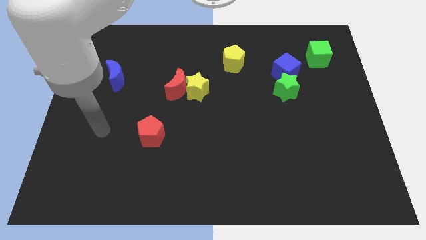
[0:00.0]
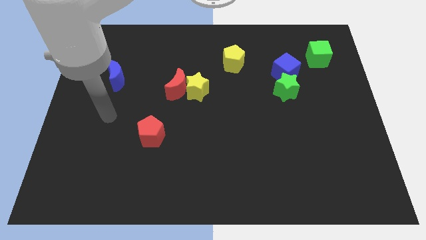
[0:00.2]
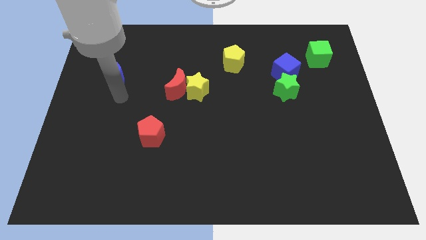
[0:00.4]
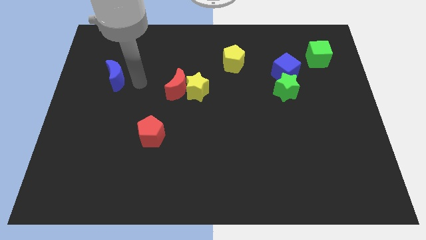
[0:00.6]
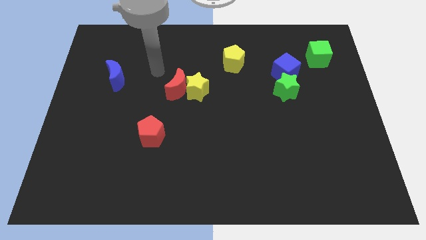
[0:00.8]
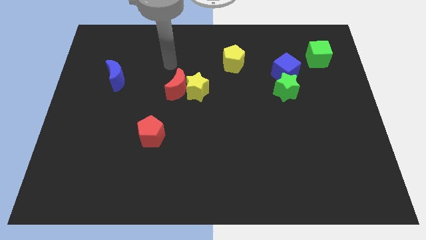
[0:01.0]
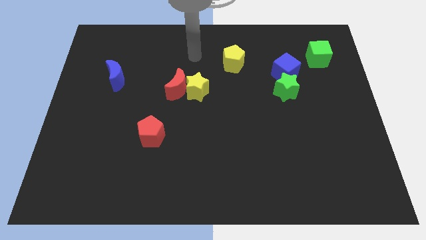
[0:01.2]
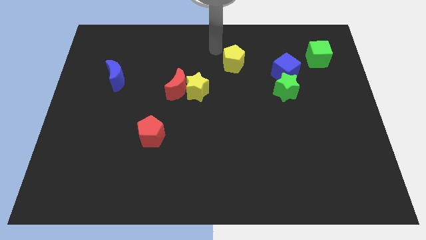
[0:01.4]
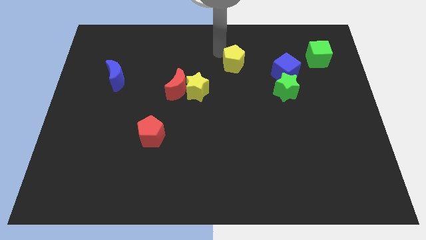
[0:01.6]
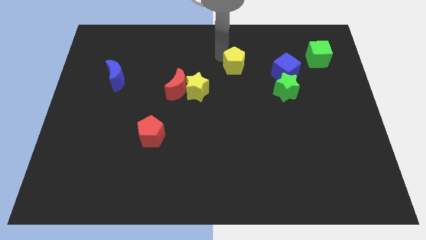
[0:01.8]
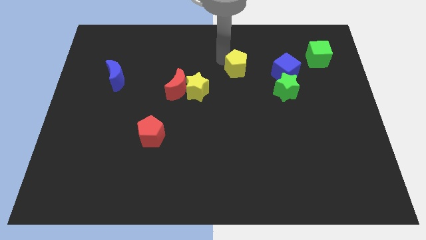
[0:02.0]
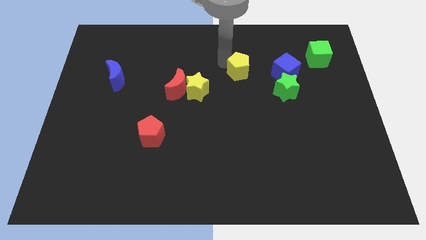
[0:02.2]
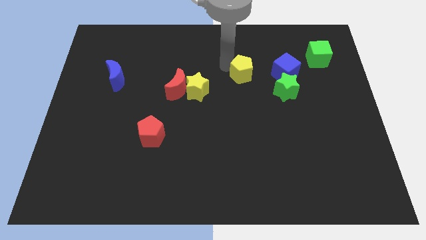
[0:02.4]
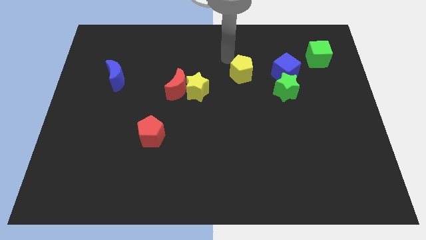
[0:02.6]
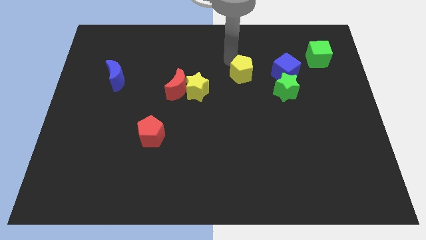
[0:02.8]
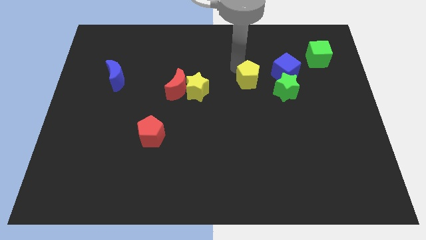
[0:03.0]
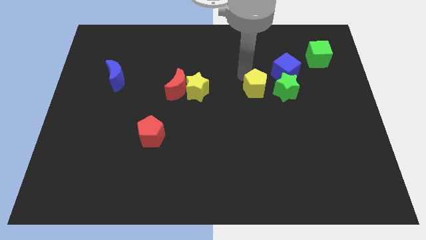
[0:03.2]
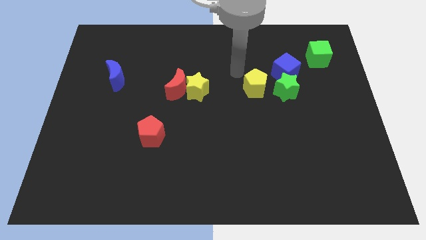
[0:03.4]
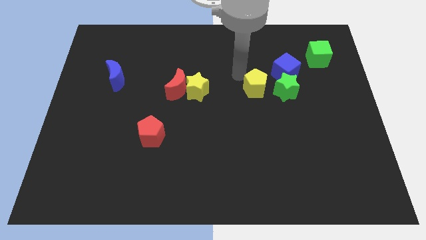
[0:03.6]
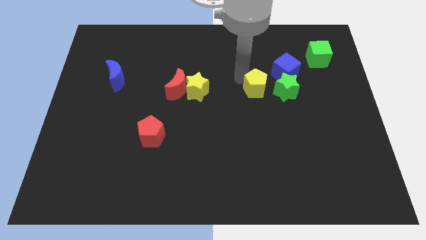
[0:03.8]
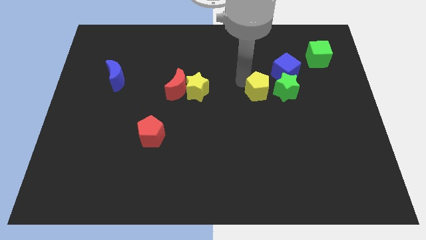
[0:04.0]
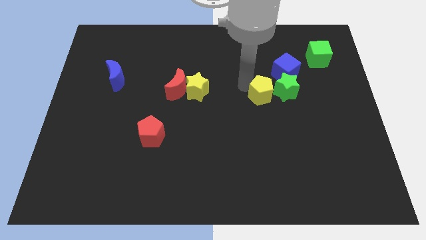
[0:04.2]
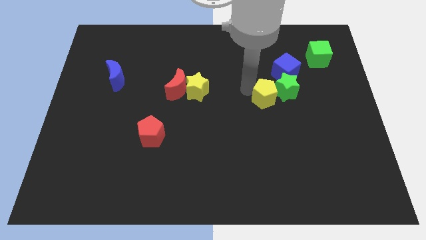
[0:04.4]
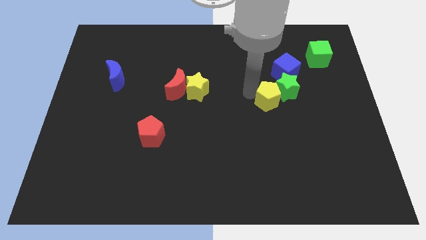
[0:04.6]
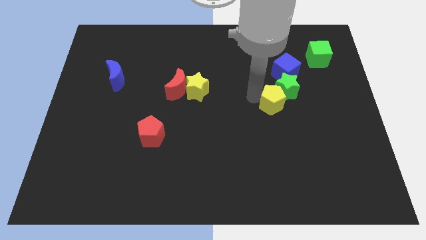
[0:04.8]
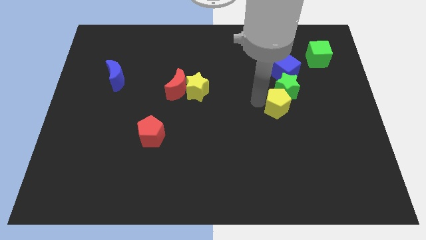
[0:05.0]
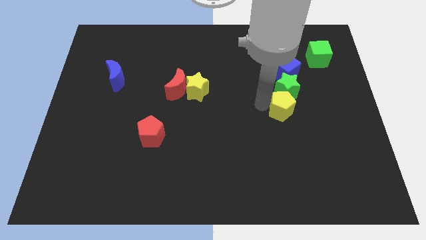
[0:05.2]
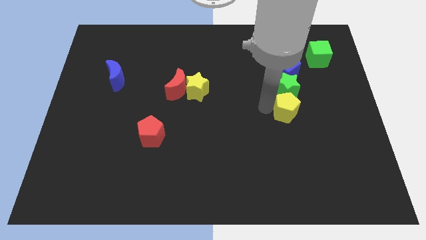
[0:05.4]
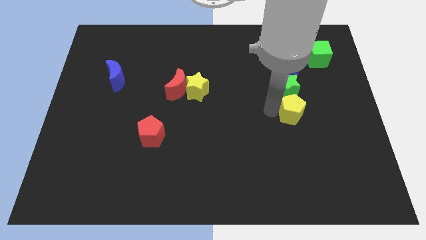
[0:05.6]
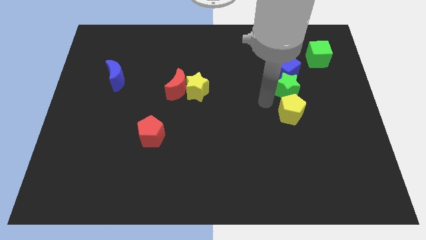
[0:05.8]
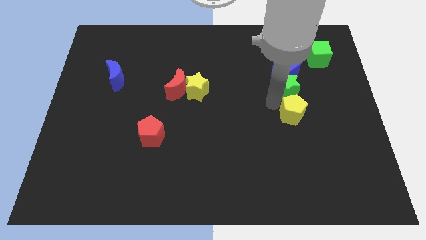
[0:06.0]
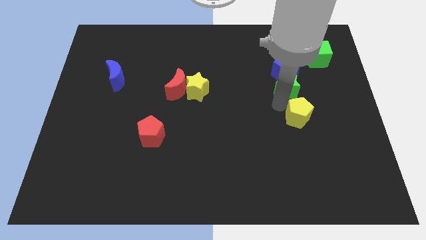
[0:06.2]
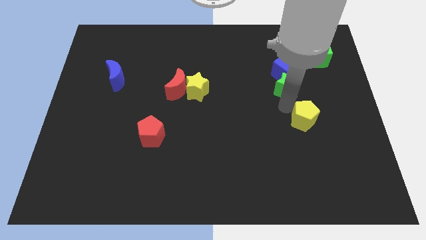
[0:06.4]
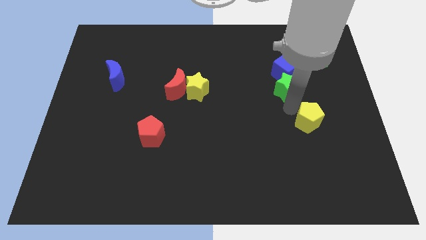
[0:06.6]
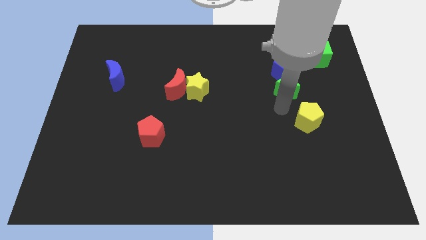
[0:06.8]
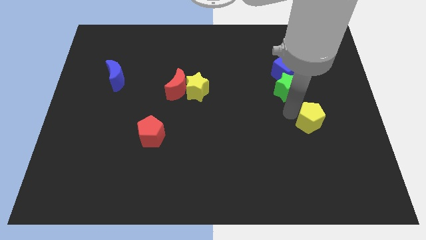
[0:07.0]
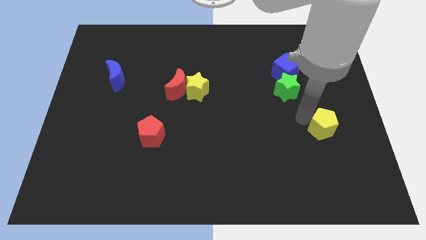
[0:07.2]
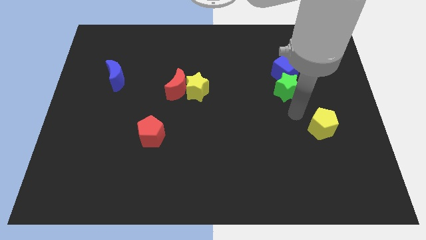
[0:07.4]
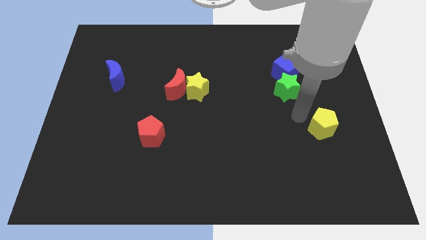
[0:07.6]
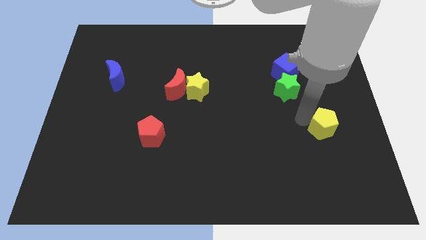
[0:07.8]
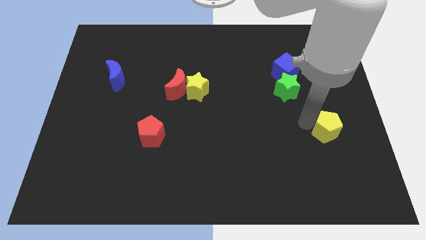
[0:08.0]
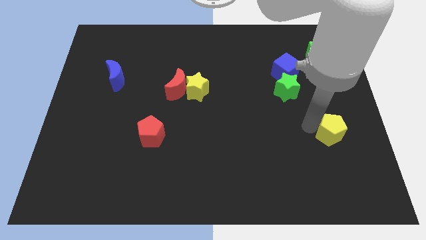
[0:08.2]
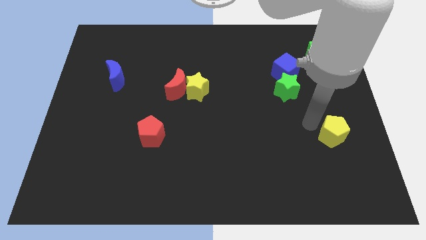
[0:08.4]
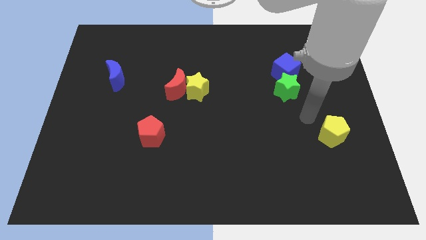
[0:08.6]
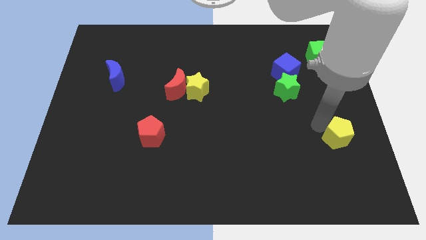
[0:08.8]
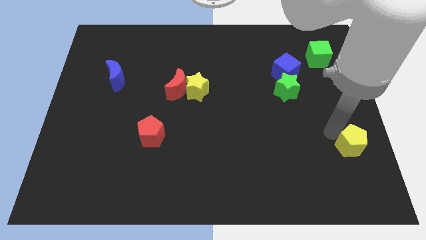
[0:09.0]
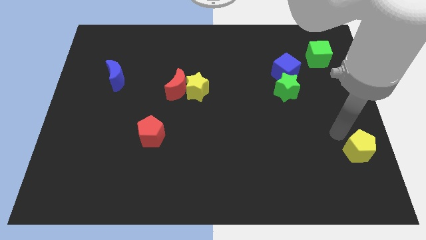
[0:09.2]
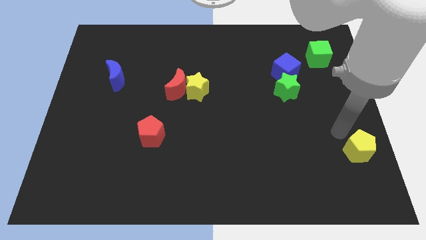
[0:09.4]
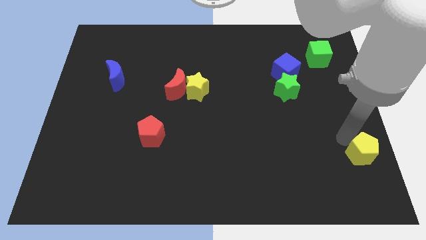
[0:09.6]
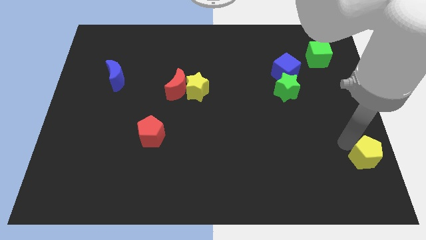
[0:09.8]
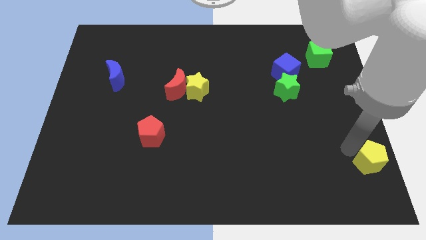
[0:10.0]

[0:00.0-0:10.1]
put the yellow pentagon to the bottom right of the board

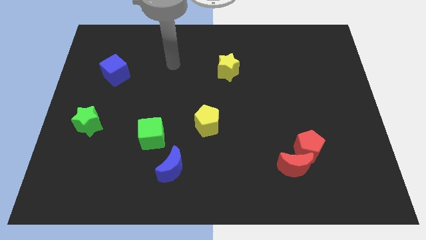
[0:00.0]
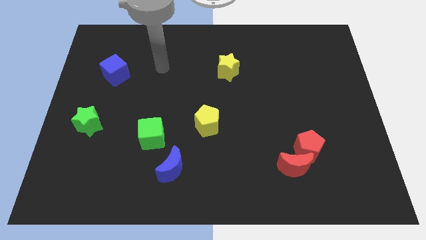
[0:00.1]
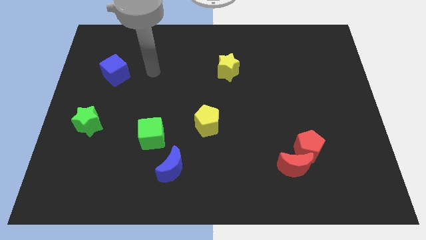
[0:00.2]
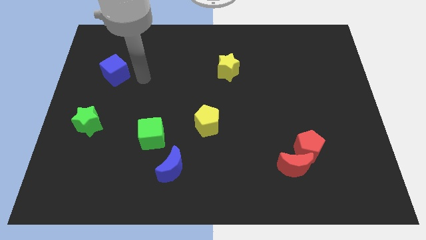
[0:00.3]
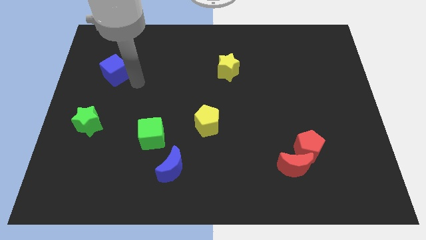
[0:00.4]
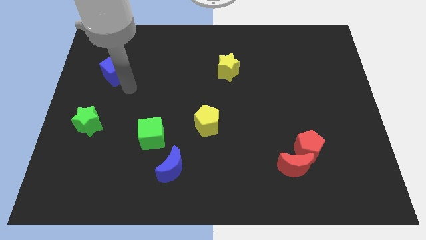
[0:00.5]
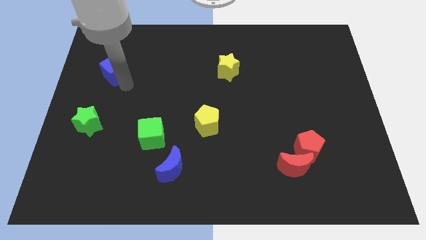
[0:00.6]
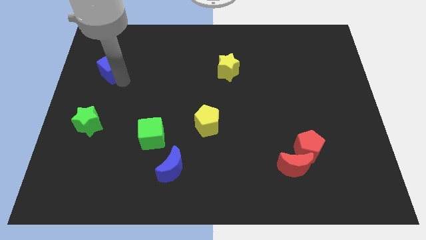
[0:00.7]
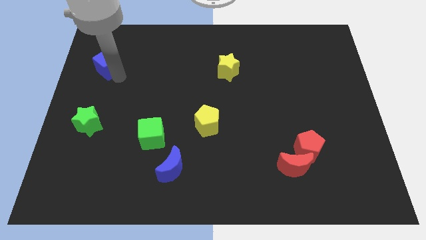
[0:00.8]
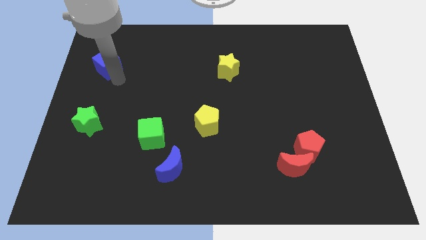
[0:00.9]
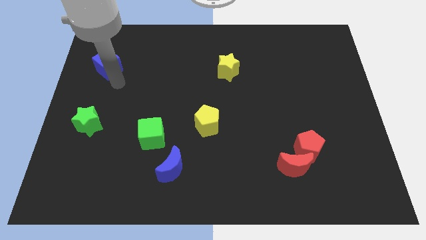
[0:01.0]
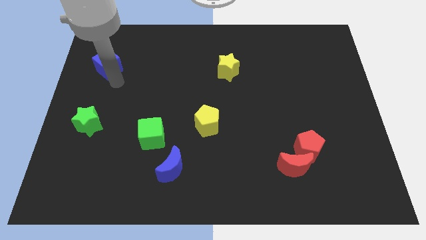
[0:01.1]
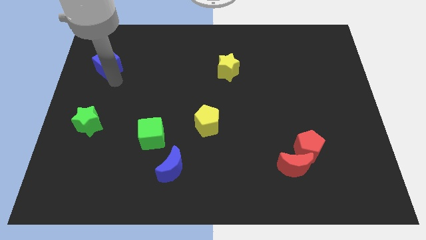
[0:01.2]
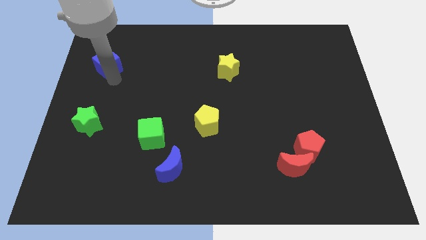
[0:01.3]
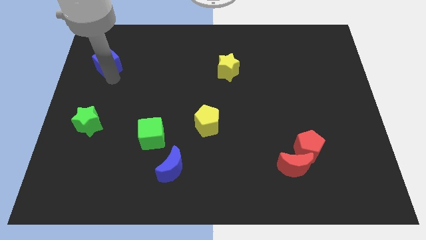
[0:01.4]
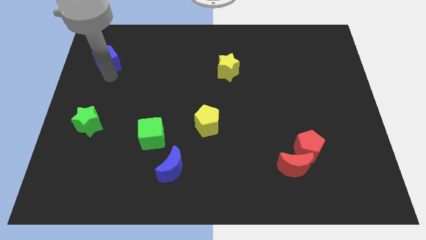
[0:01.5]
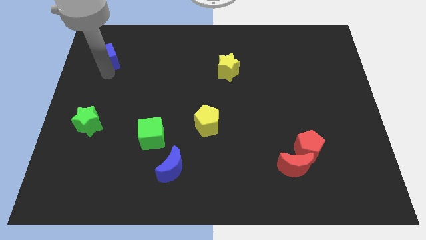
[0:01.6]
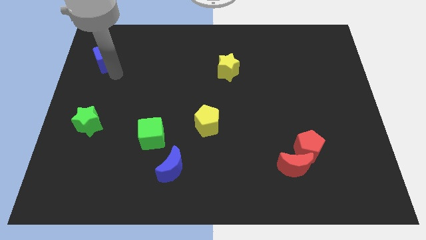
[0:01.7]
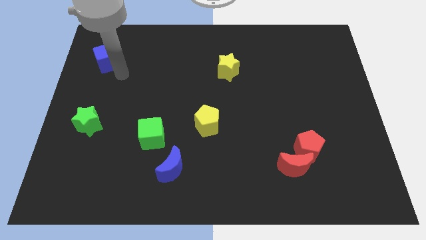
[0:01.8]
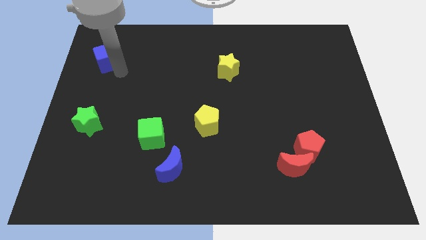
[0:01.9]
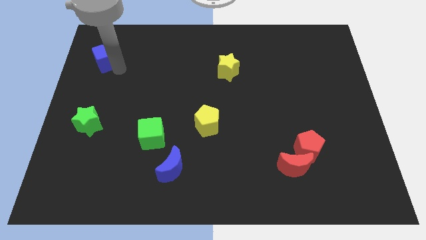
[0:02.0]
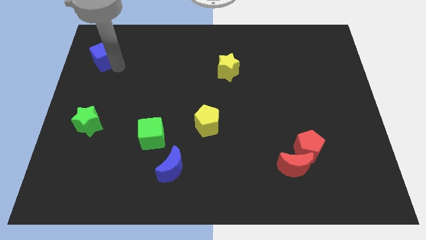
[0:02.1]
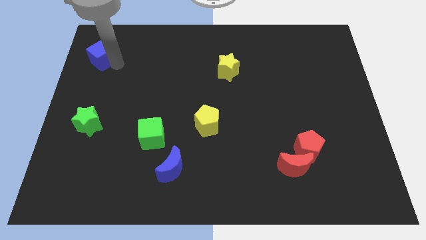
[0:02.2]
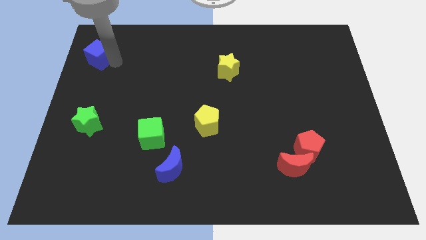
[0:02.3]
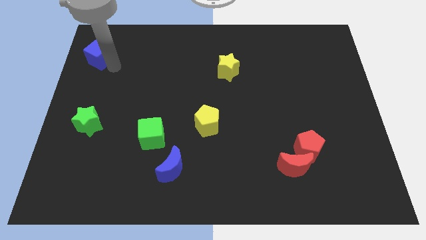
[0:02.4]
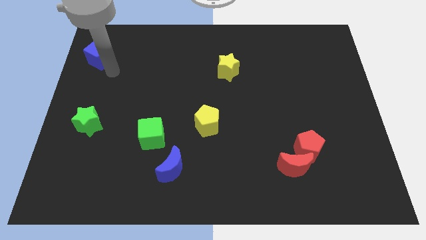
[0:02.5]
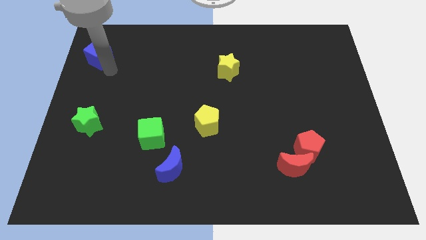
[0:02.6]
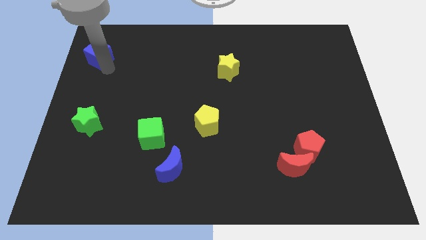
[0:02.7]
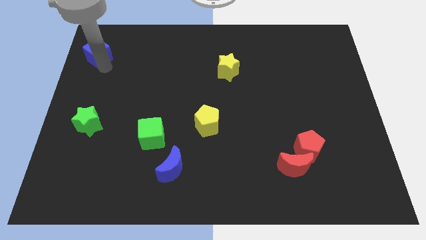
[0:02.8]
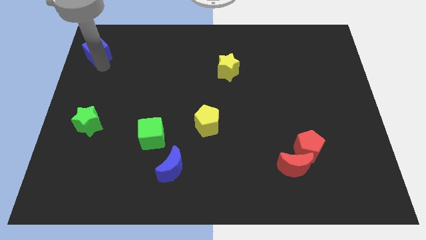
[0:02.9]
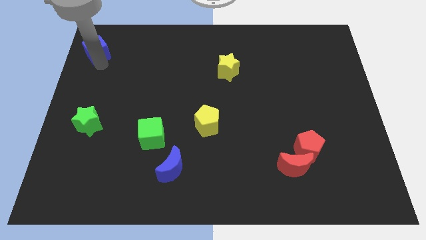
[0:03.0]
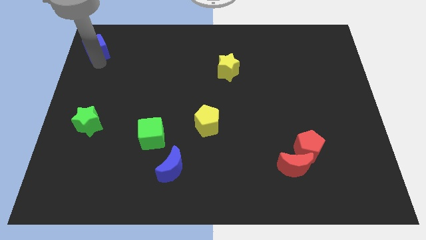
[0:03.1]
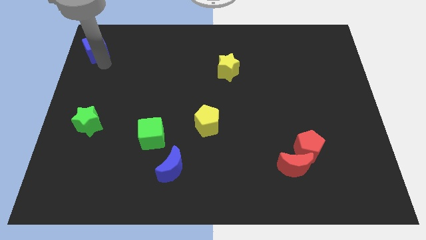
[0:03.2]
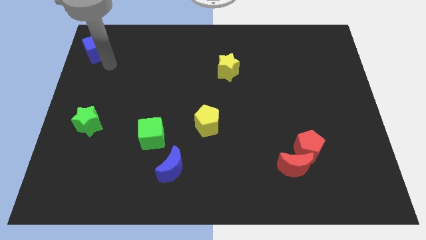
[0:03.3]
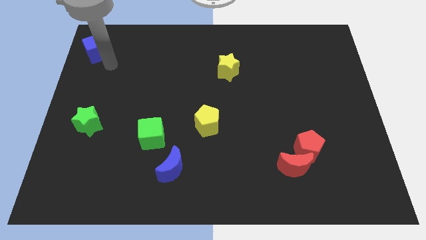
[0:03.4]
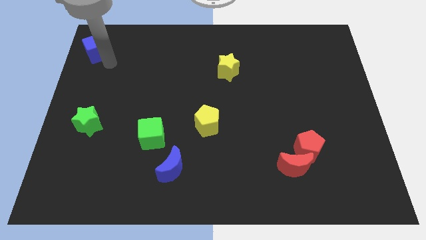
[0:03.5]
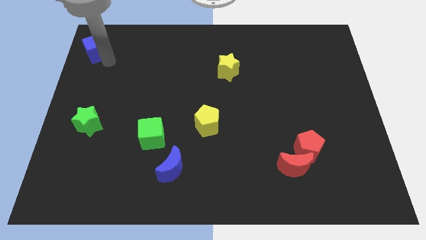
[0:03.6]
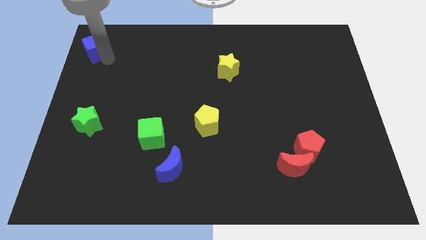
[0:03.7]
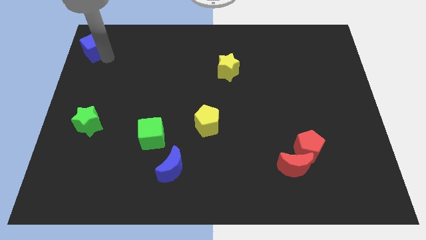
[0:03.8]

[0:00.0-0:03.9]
push the blue cube to the top left
